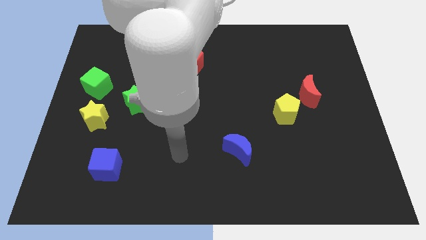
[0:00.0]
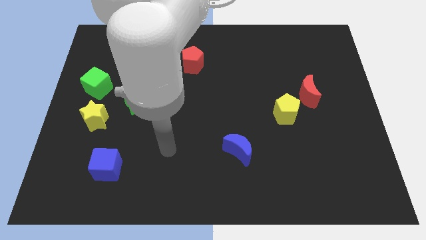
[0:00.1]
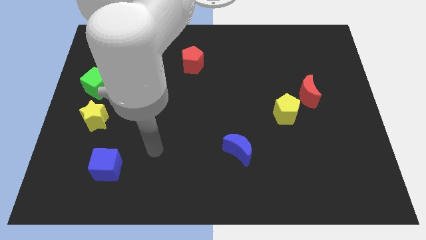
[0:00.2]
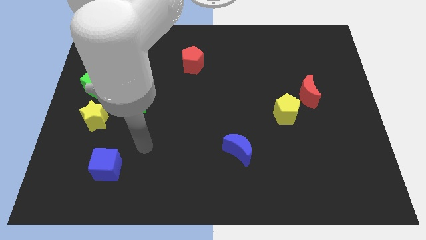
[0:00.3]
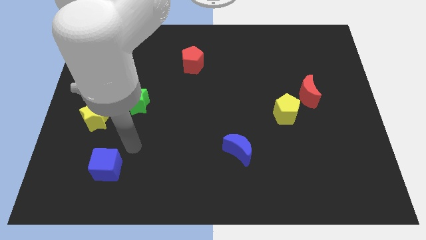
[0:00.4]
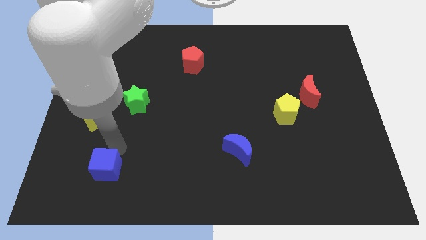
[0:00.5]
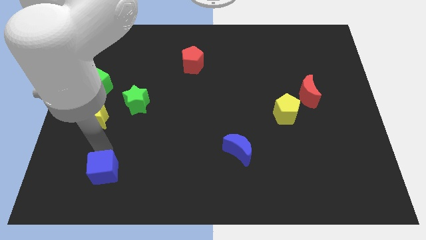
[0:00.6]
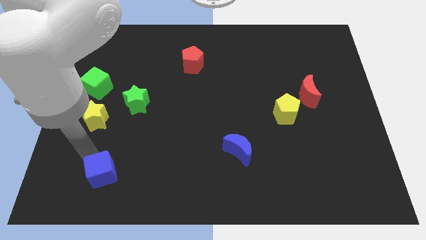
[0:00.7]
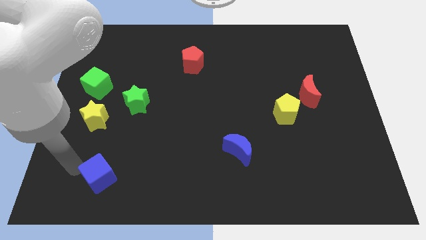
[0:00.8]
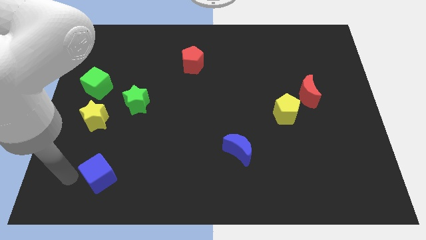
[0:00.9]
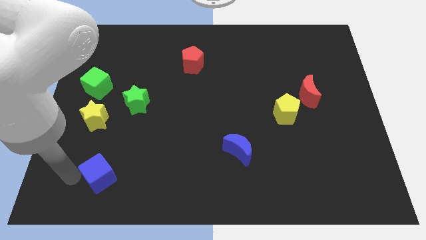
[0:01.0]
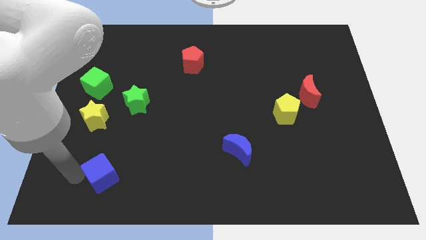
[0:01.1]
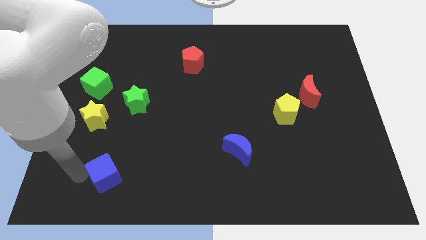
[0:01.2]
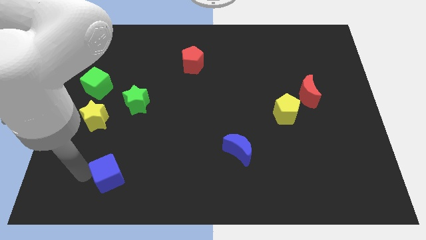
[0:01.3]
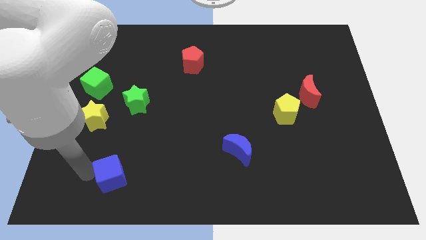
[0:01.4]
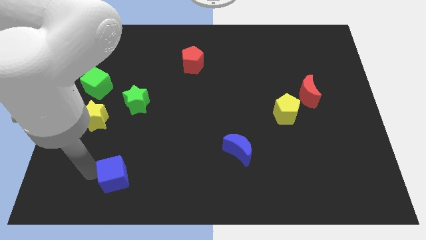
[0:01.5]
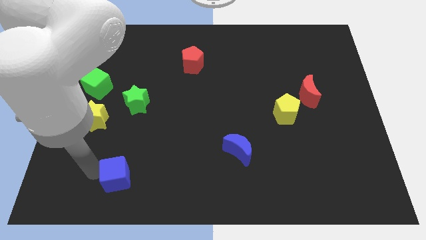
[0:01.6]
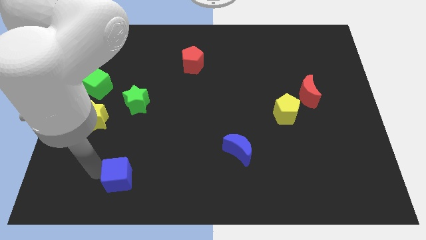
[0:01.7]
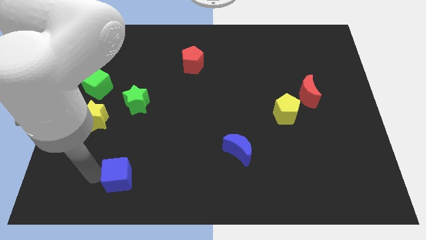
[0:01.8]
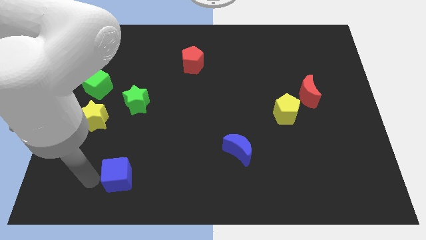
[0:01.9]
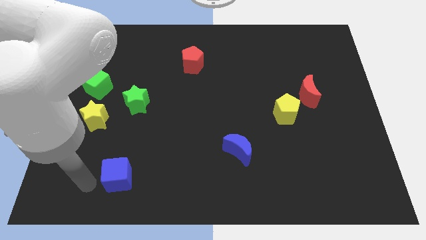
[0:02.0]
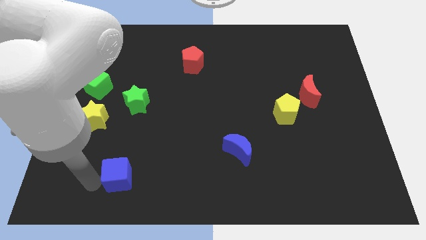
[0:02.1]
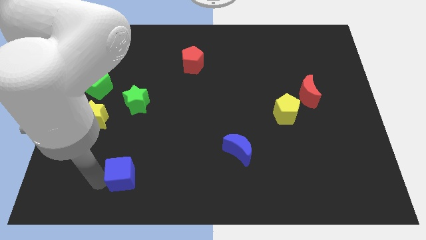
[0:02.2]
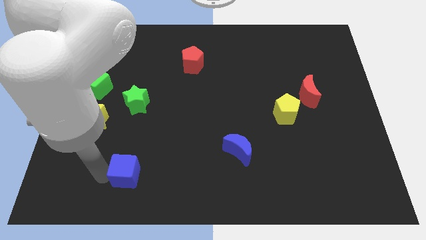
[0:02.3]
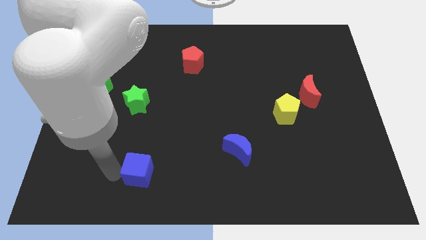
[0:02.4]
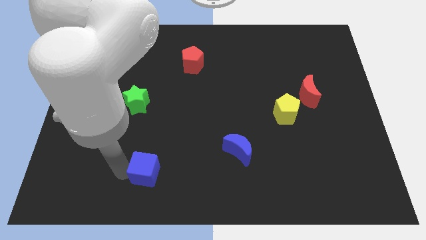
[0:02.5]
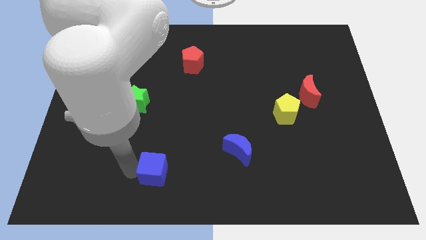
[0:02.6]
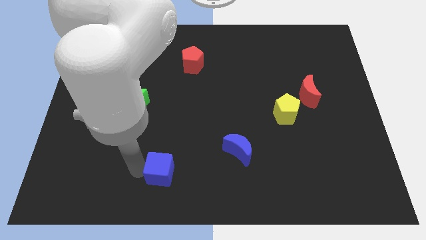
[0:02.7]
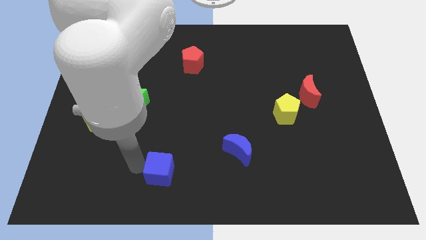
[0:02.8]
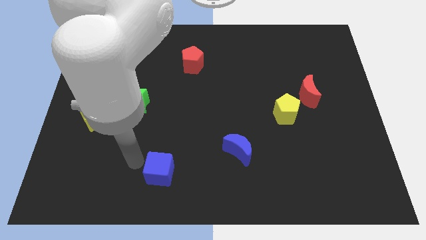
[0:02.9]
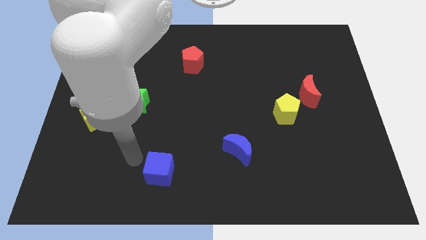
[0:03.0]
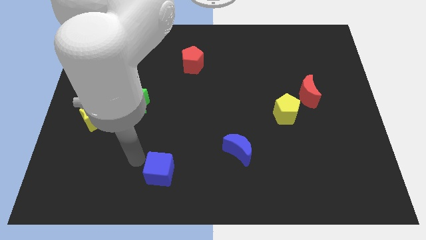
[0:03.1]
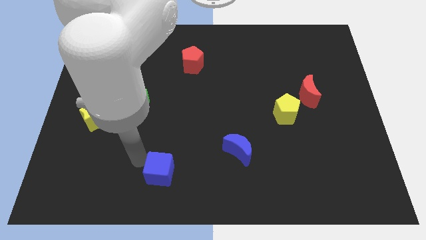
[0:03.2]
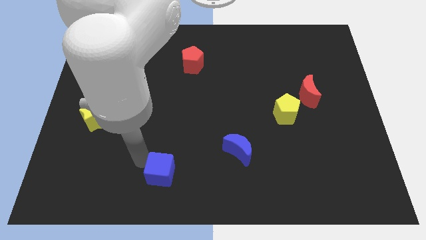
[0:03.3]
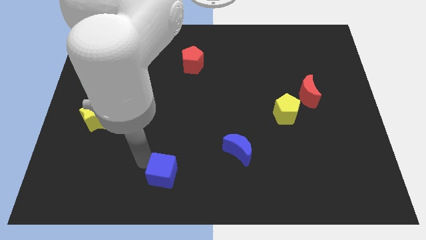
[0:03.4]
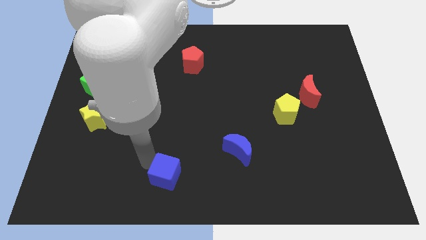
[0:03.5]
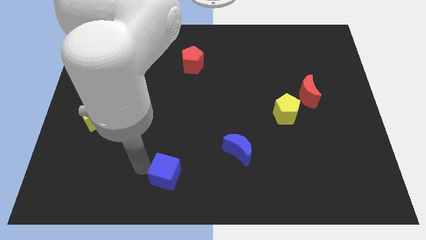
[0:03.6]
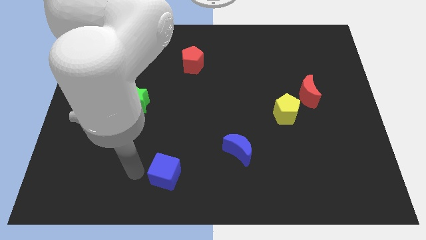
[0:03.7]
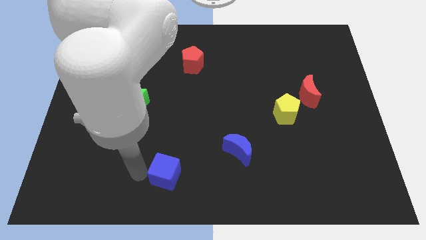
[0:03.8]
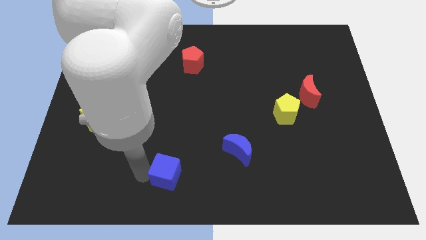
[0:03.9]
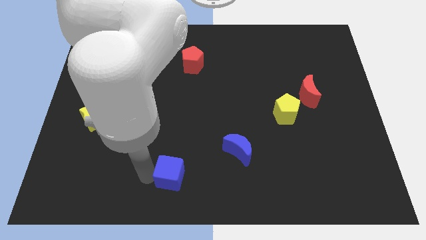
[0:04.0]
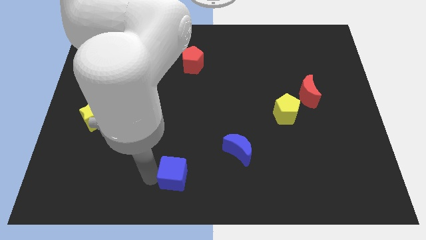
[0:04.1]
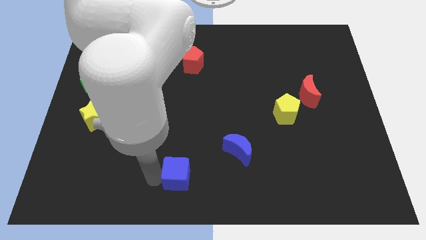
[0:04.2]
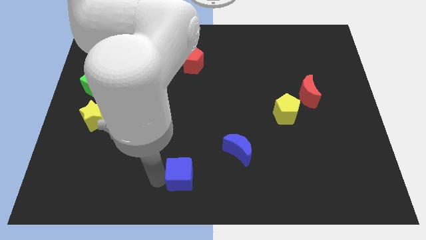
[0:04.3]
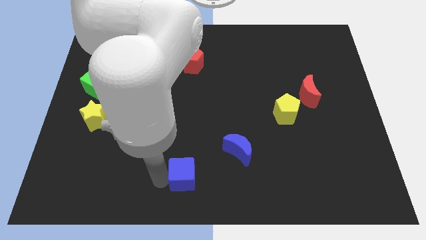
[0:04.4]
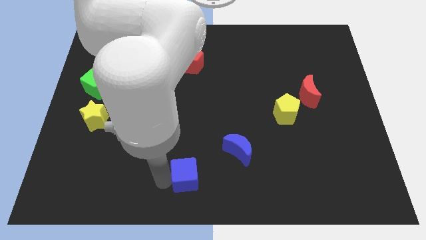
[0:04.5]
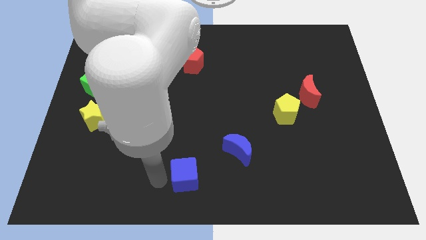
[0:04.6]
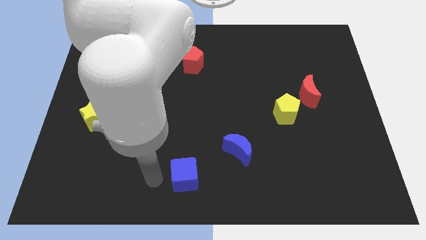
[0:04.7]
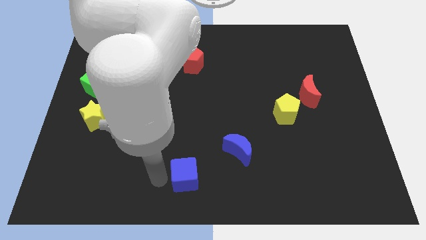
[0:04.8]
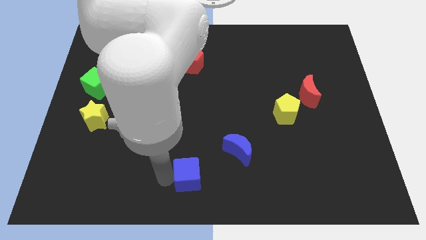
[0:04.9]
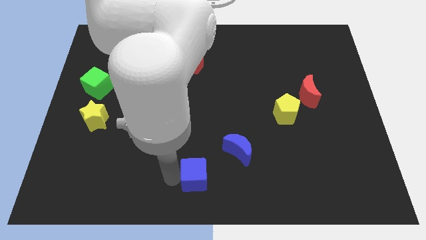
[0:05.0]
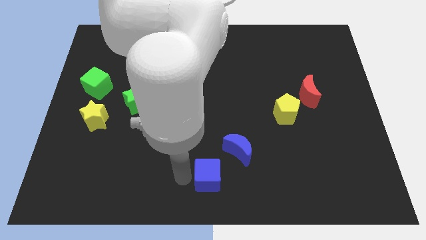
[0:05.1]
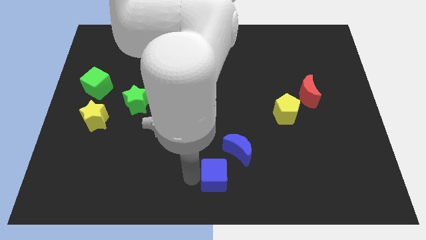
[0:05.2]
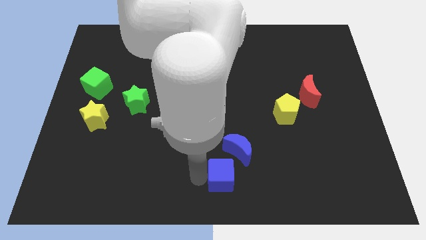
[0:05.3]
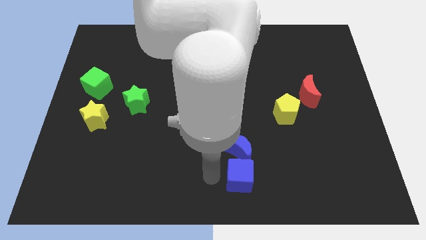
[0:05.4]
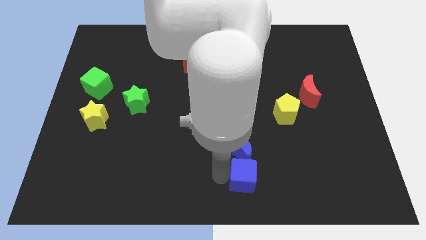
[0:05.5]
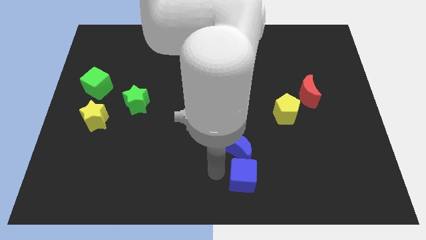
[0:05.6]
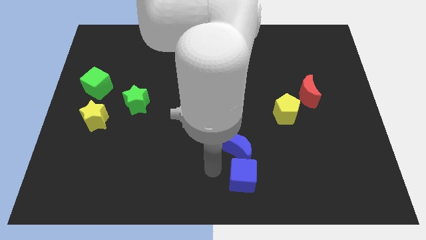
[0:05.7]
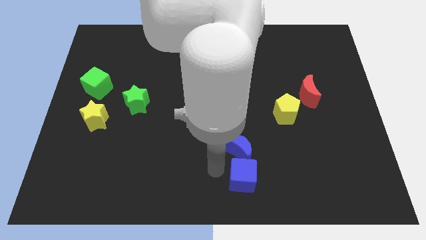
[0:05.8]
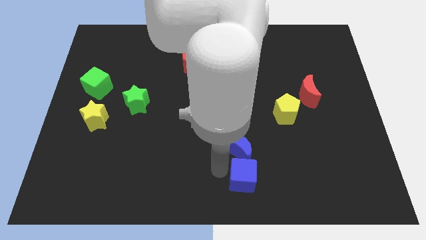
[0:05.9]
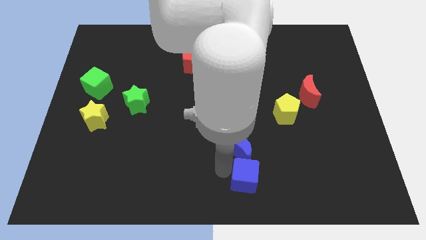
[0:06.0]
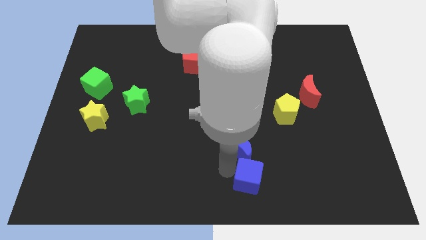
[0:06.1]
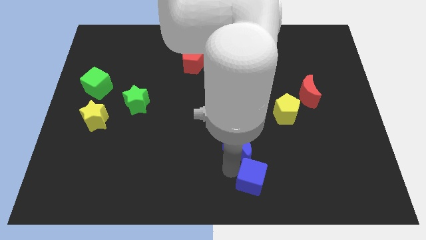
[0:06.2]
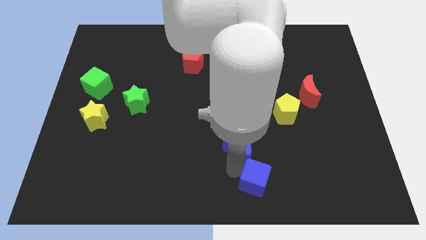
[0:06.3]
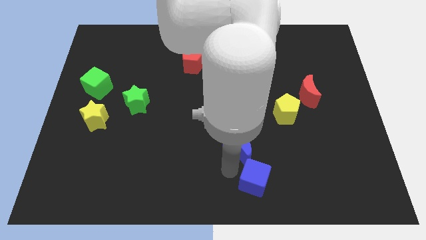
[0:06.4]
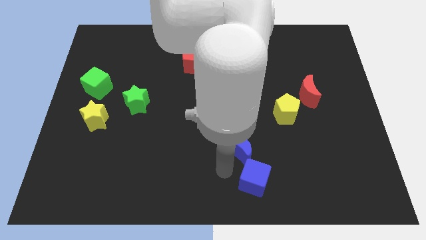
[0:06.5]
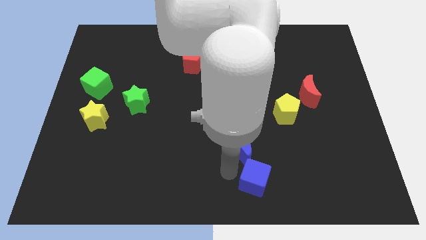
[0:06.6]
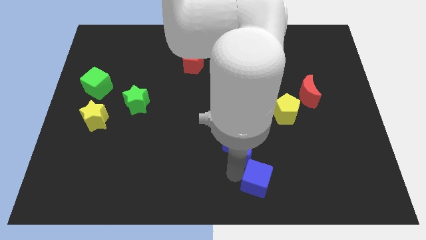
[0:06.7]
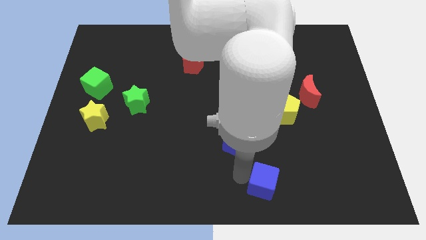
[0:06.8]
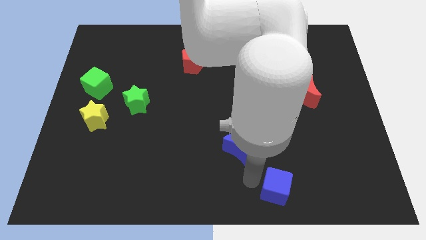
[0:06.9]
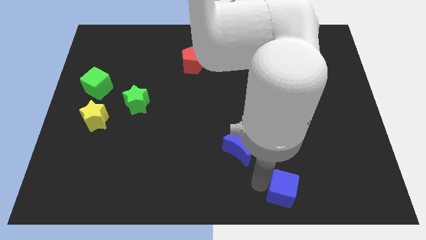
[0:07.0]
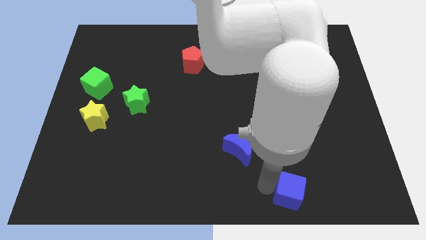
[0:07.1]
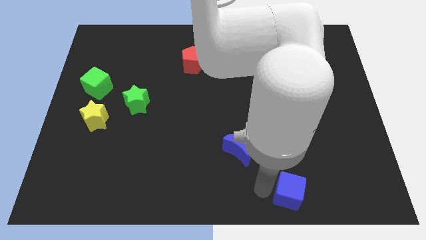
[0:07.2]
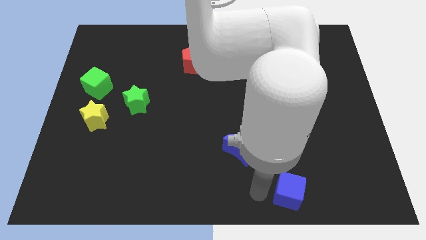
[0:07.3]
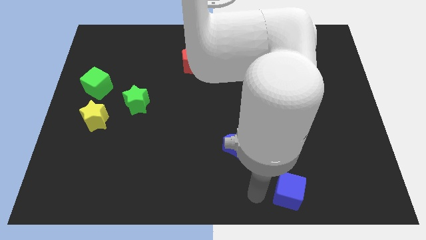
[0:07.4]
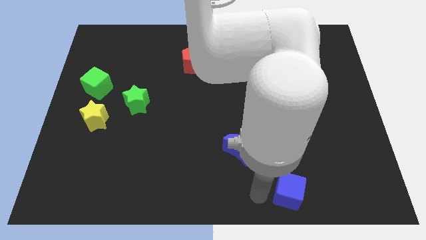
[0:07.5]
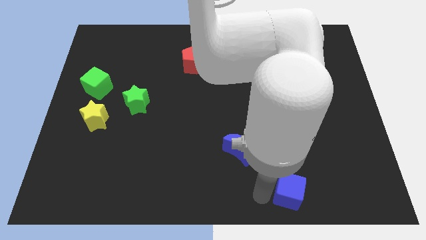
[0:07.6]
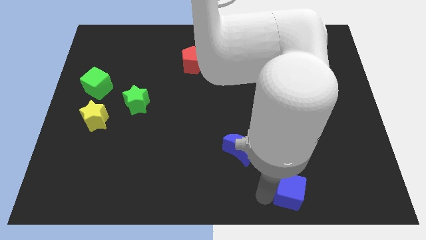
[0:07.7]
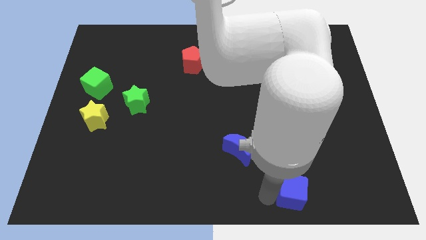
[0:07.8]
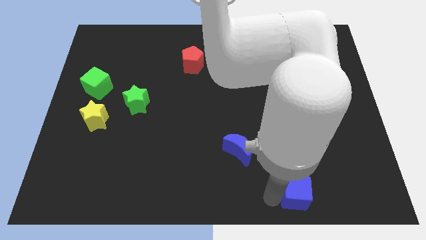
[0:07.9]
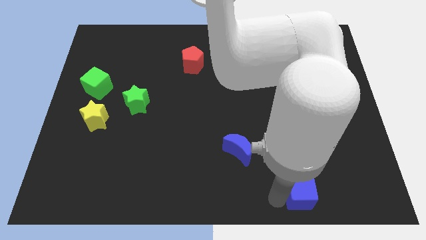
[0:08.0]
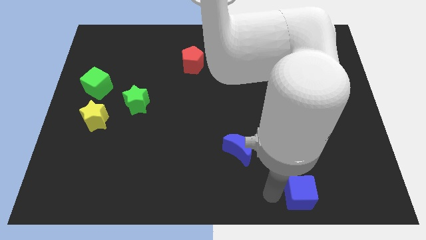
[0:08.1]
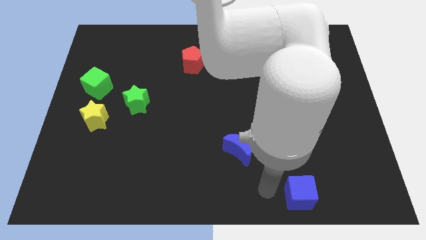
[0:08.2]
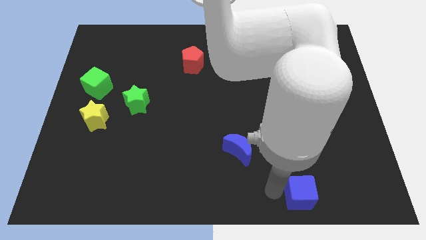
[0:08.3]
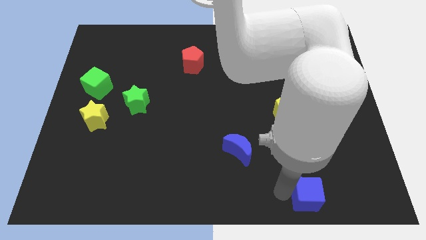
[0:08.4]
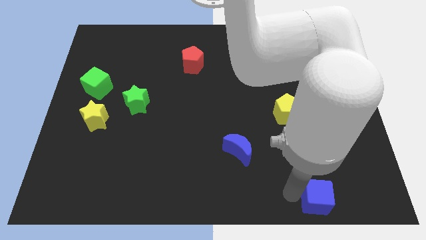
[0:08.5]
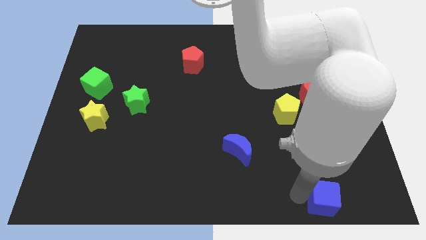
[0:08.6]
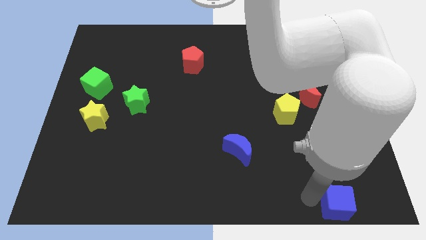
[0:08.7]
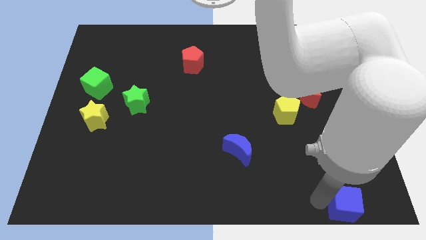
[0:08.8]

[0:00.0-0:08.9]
put the blue cube to the bottom right of the board
